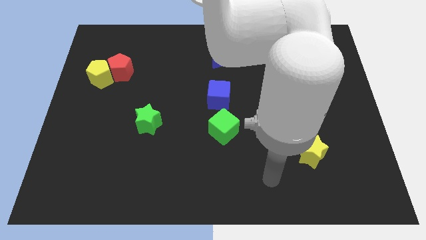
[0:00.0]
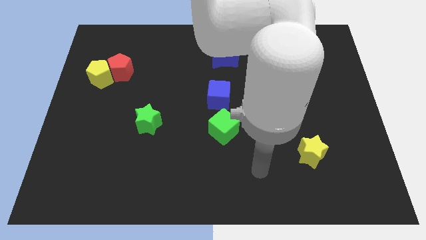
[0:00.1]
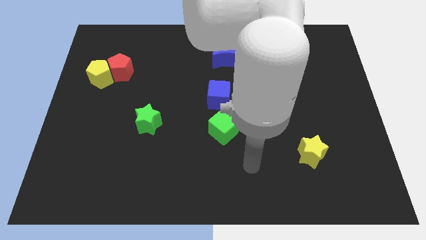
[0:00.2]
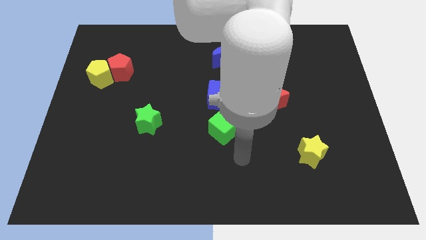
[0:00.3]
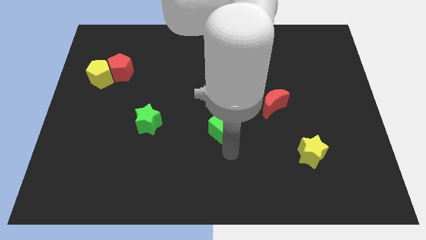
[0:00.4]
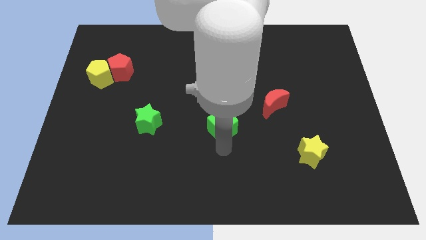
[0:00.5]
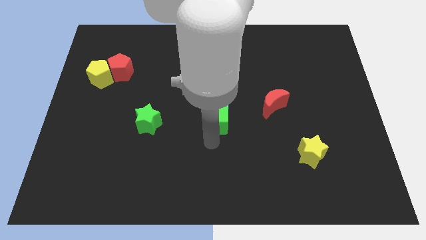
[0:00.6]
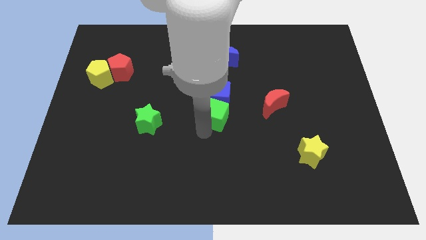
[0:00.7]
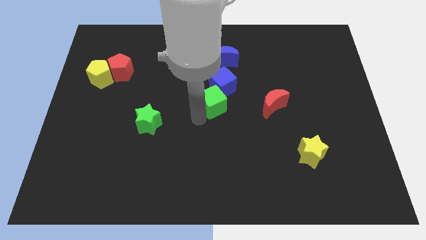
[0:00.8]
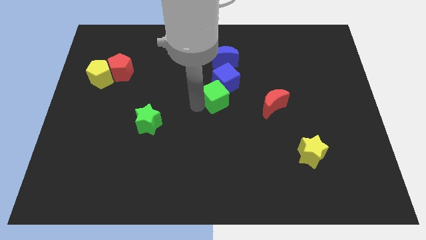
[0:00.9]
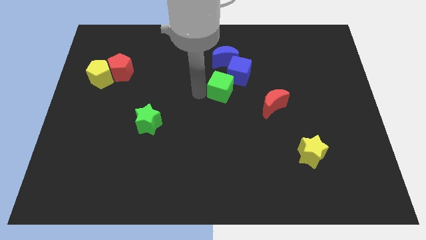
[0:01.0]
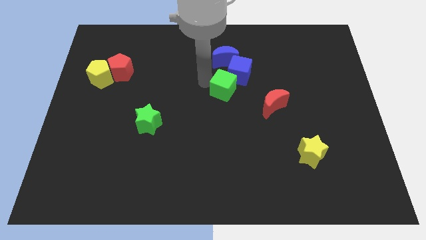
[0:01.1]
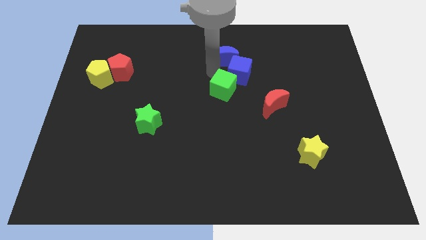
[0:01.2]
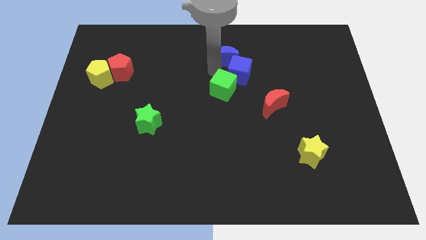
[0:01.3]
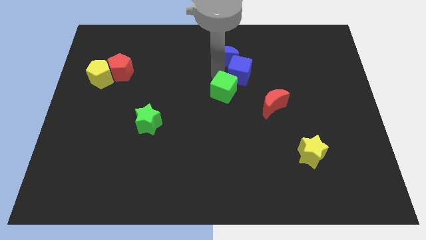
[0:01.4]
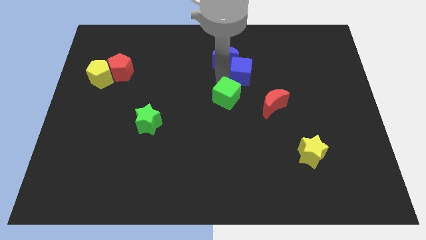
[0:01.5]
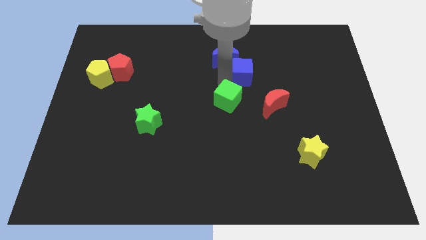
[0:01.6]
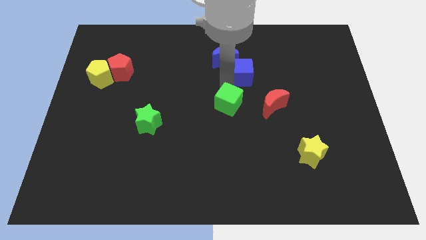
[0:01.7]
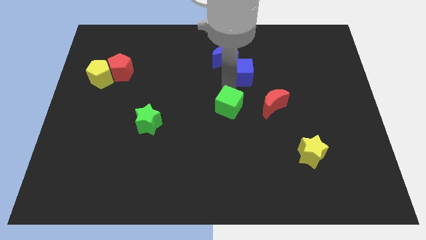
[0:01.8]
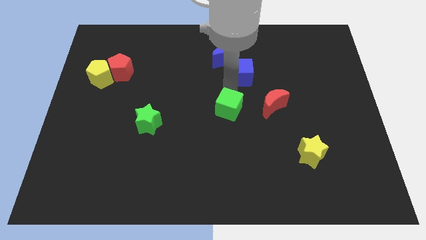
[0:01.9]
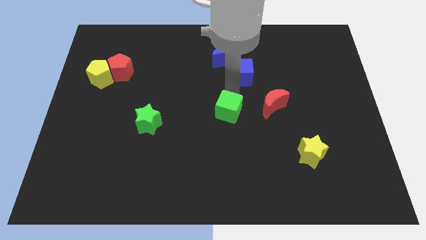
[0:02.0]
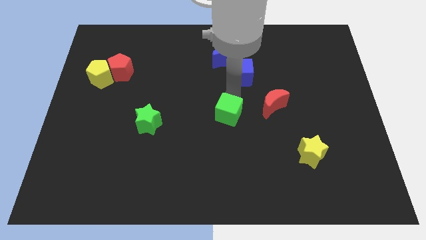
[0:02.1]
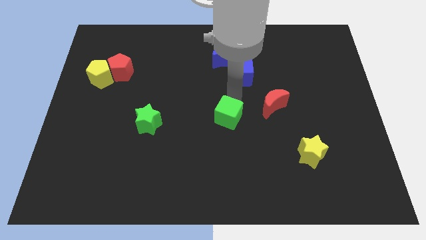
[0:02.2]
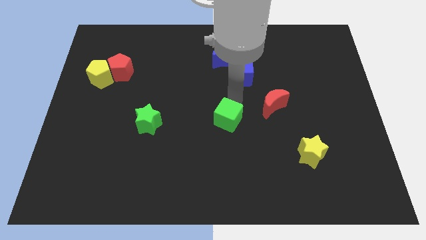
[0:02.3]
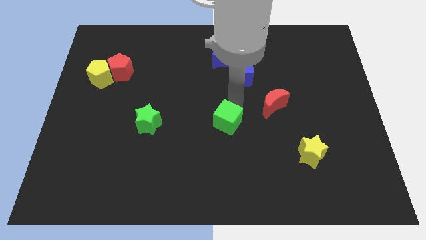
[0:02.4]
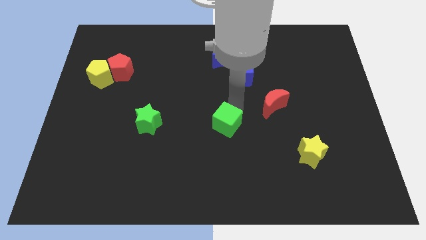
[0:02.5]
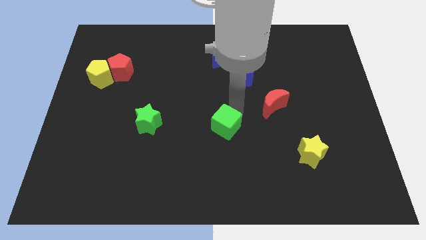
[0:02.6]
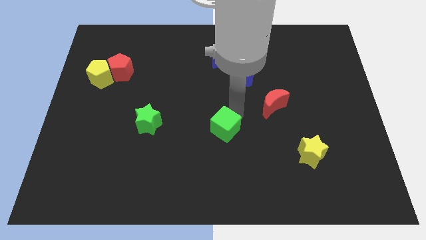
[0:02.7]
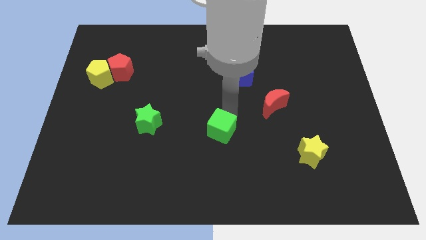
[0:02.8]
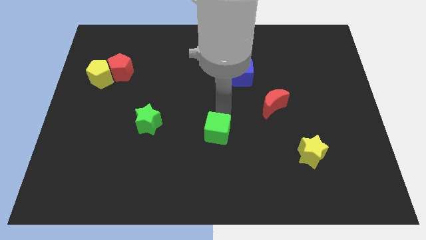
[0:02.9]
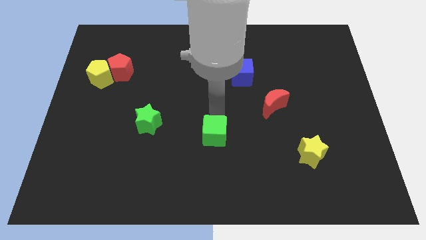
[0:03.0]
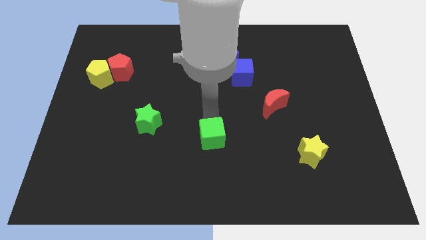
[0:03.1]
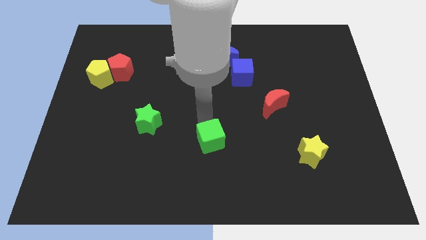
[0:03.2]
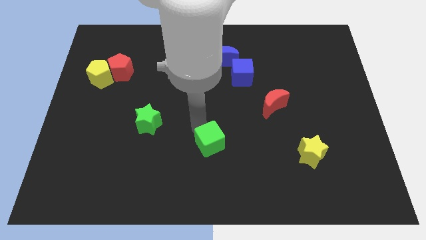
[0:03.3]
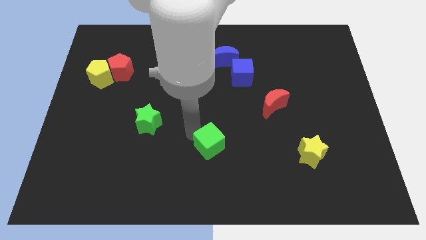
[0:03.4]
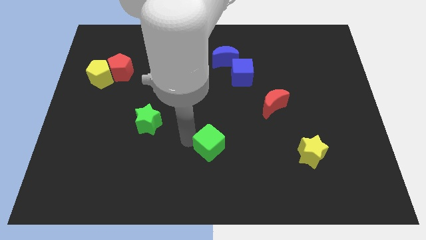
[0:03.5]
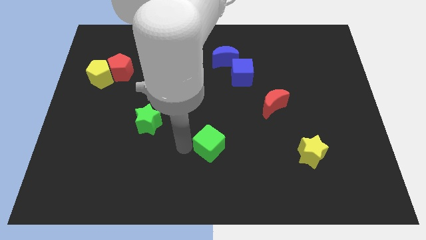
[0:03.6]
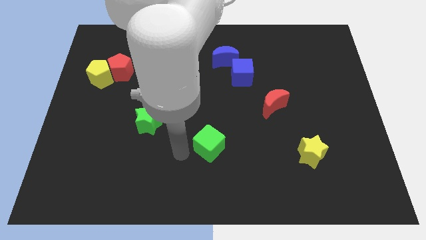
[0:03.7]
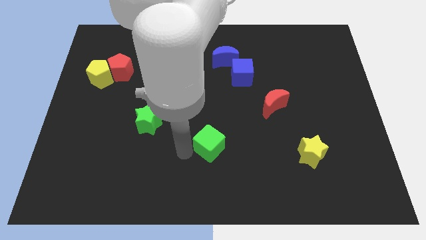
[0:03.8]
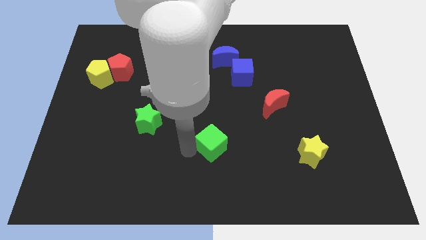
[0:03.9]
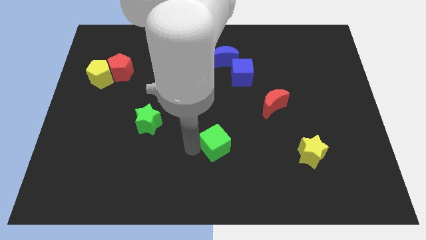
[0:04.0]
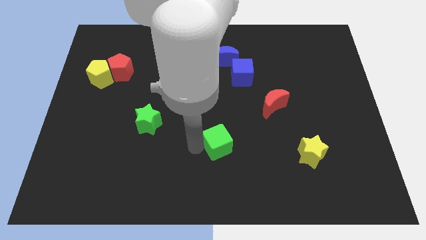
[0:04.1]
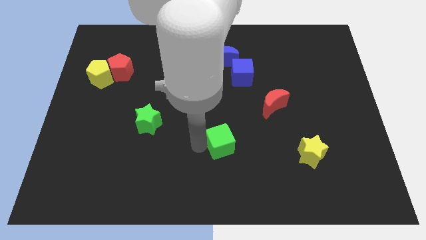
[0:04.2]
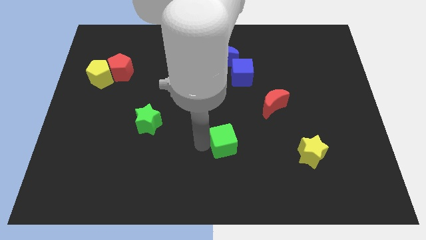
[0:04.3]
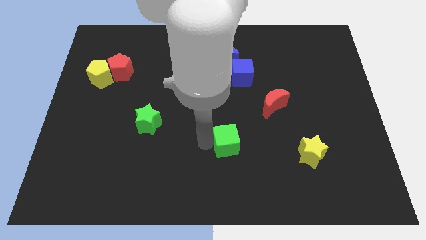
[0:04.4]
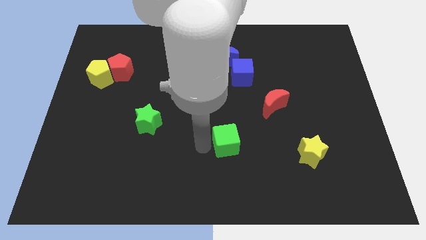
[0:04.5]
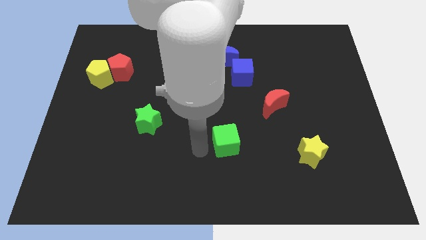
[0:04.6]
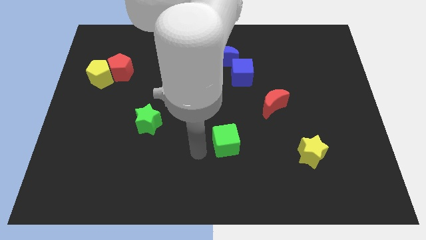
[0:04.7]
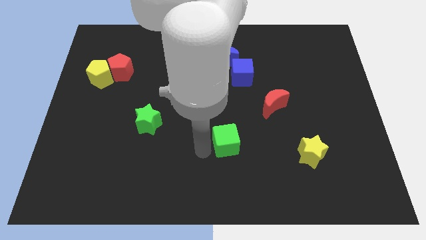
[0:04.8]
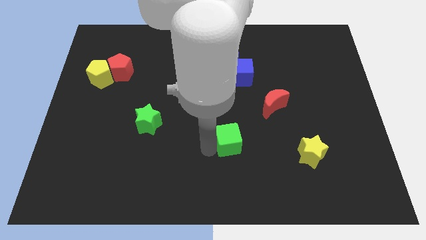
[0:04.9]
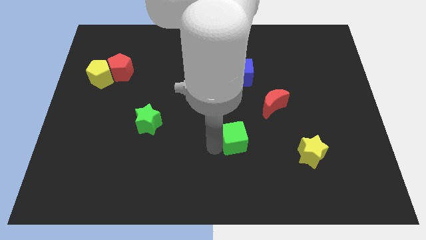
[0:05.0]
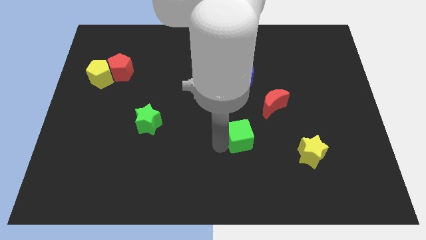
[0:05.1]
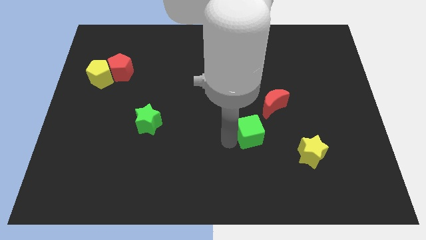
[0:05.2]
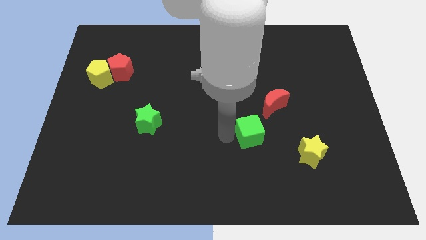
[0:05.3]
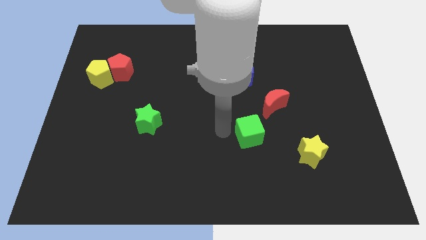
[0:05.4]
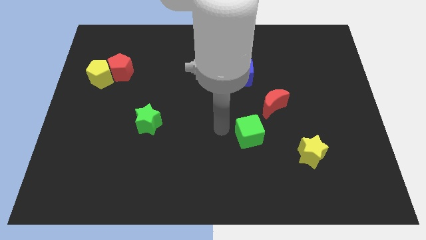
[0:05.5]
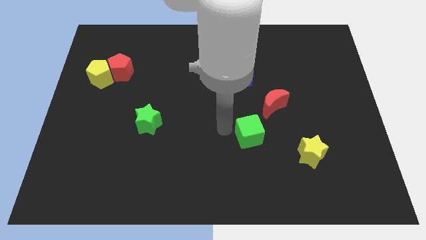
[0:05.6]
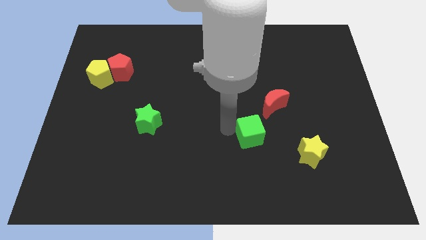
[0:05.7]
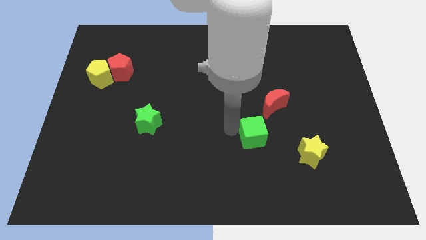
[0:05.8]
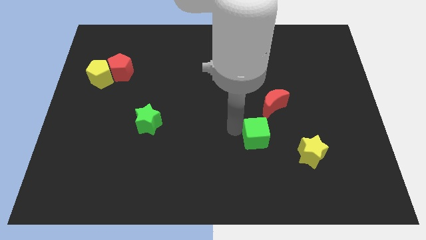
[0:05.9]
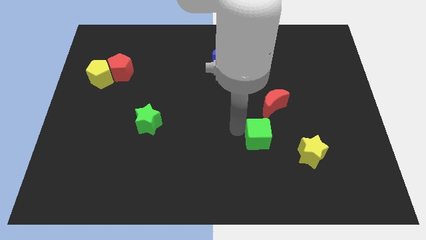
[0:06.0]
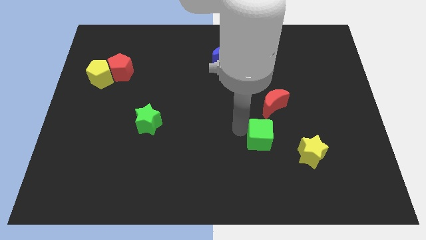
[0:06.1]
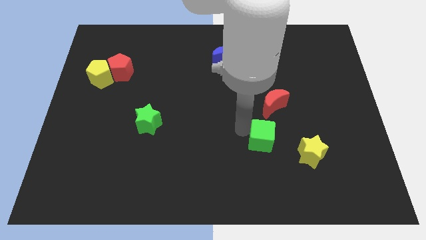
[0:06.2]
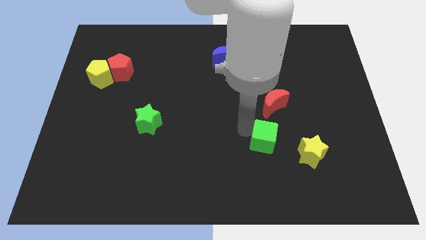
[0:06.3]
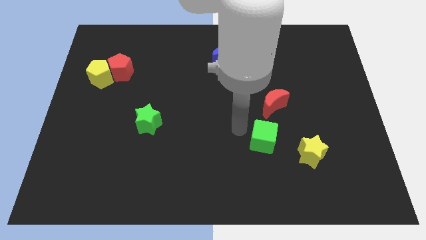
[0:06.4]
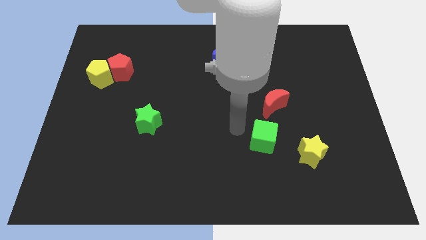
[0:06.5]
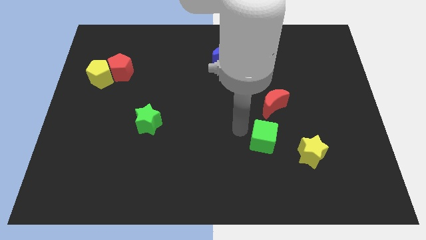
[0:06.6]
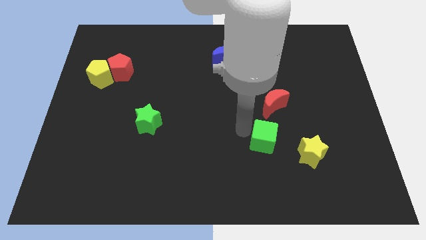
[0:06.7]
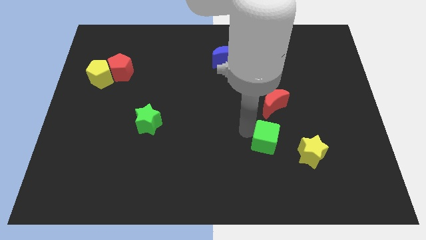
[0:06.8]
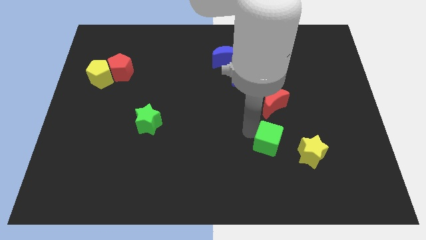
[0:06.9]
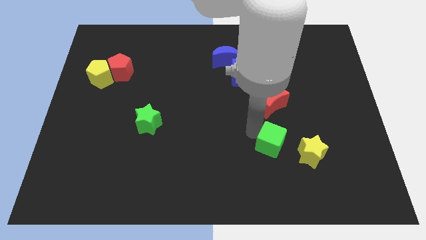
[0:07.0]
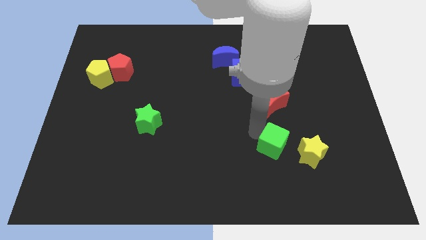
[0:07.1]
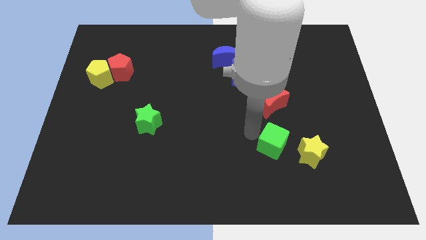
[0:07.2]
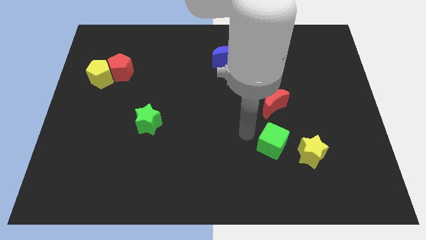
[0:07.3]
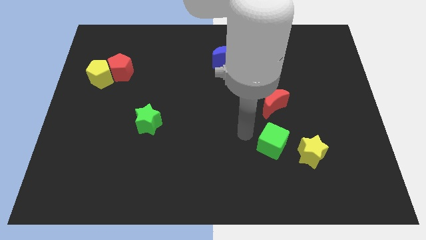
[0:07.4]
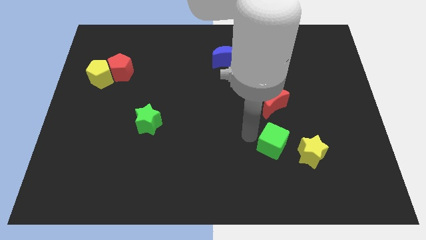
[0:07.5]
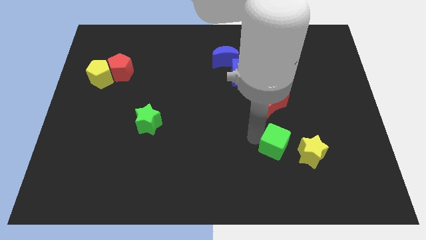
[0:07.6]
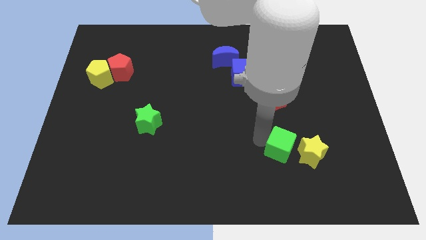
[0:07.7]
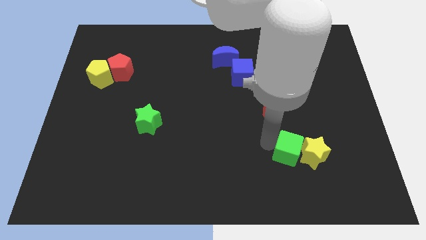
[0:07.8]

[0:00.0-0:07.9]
push the green cube close to the yellow star

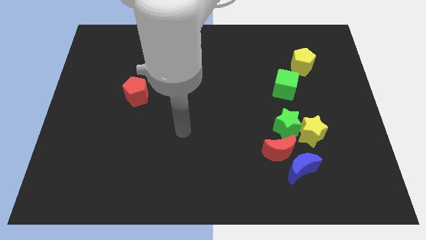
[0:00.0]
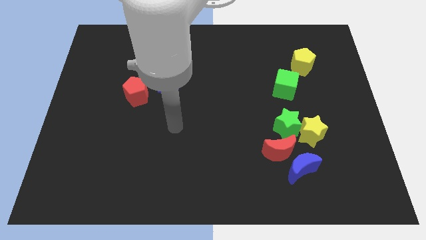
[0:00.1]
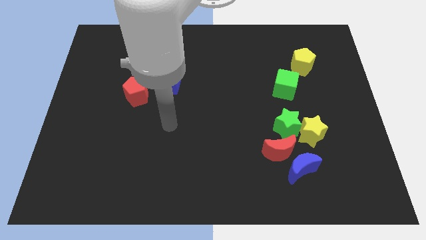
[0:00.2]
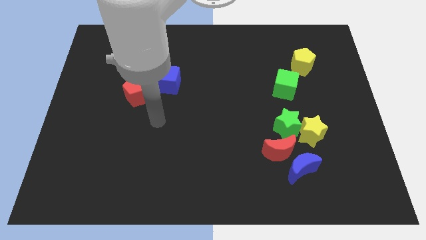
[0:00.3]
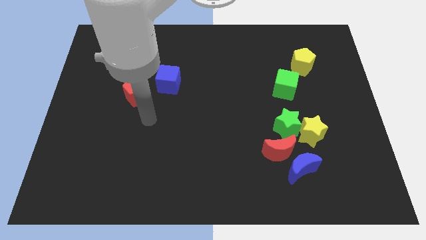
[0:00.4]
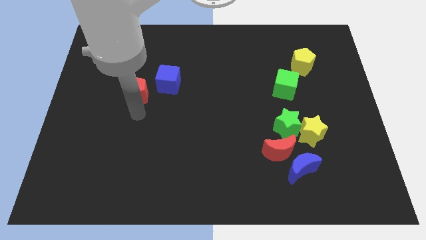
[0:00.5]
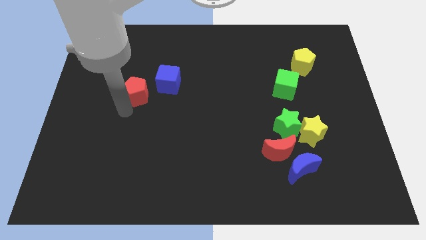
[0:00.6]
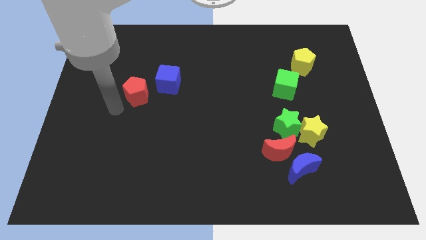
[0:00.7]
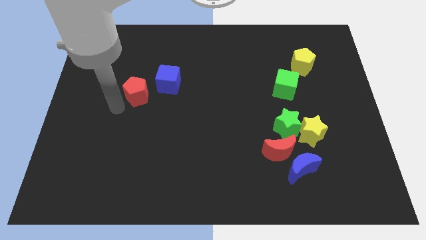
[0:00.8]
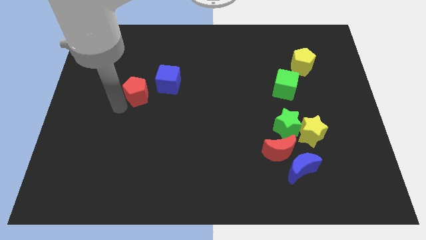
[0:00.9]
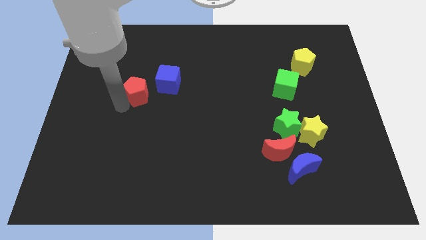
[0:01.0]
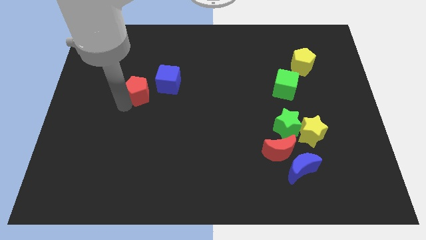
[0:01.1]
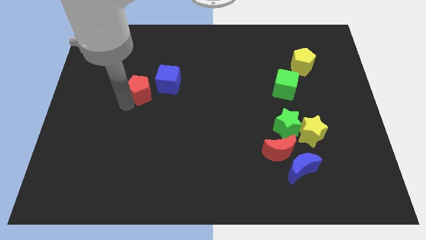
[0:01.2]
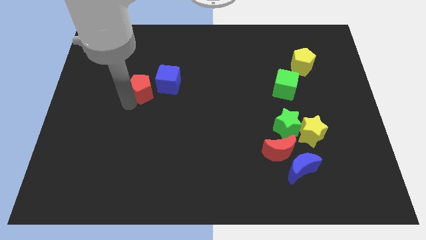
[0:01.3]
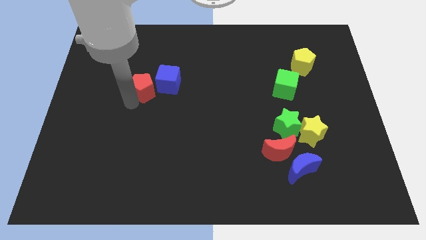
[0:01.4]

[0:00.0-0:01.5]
slide the red pentagon close to the blue cube
